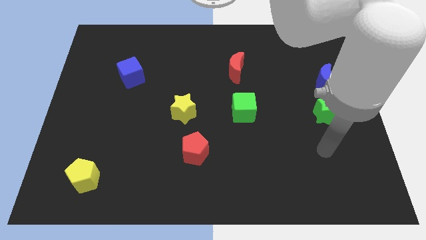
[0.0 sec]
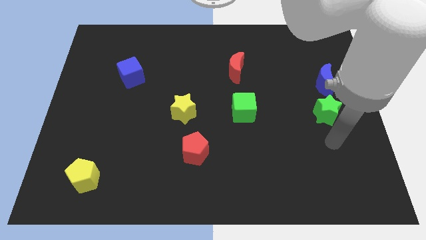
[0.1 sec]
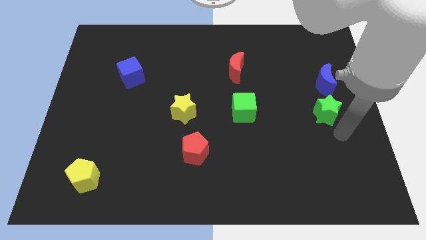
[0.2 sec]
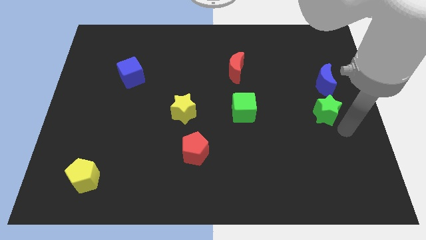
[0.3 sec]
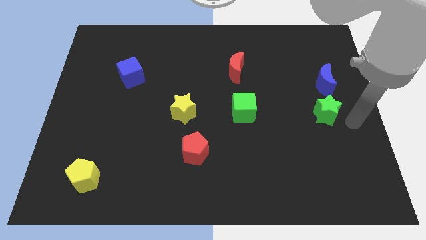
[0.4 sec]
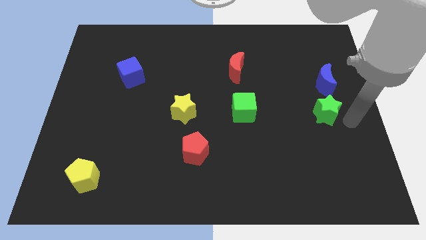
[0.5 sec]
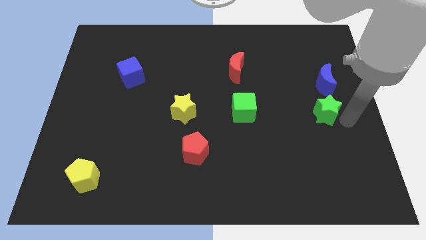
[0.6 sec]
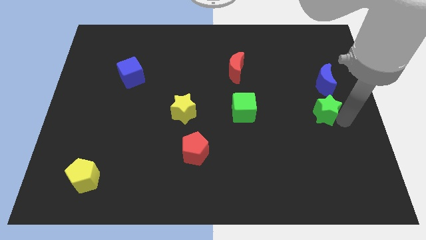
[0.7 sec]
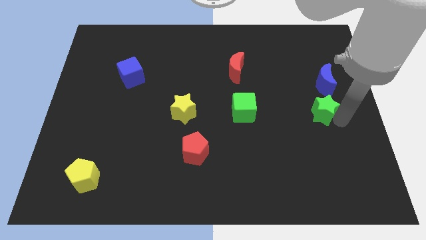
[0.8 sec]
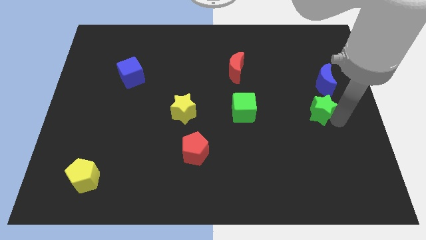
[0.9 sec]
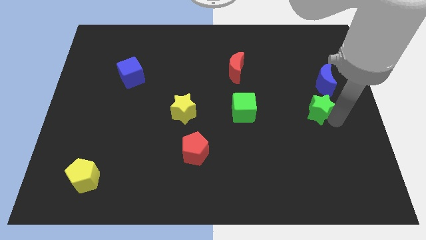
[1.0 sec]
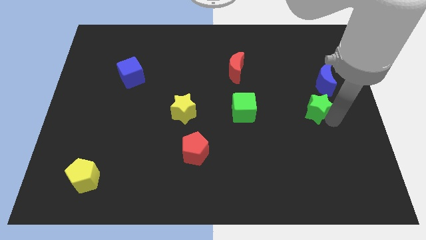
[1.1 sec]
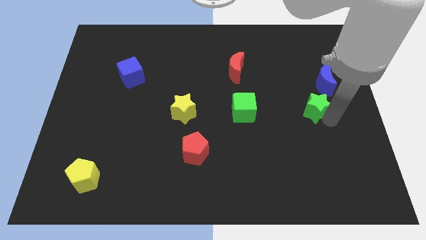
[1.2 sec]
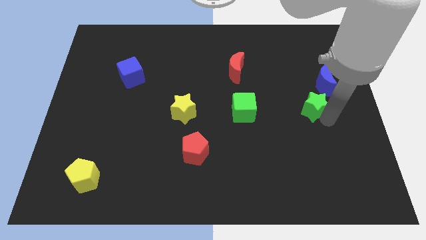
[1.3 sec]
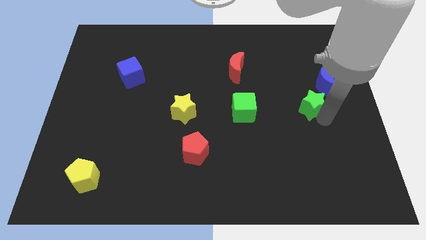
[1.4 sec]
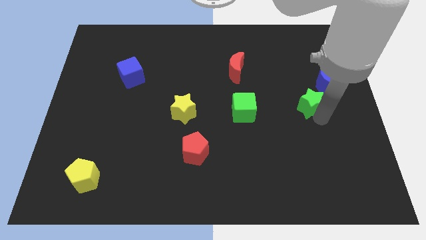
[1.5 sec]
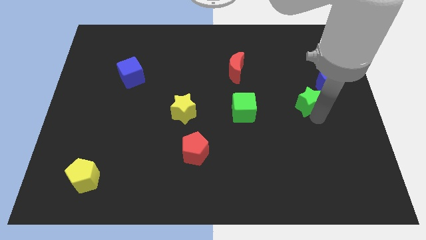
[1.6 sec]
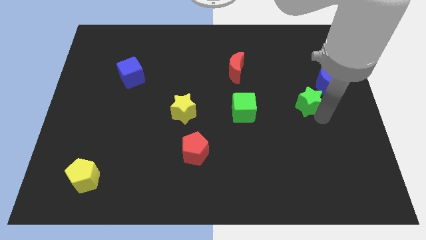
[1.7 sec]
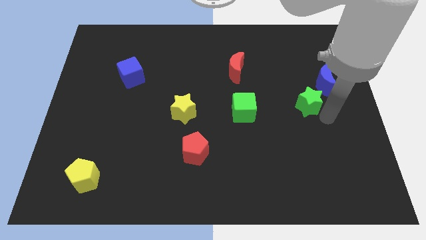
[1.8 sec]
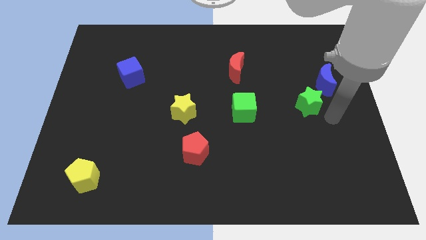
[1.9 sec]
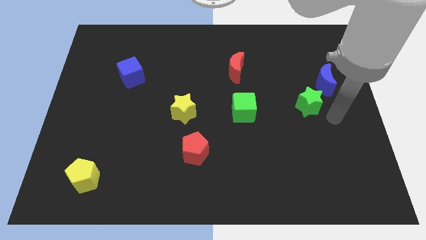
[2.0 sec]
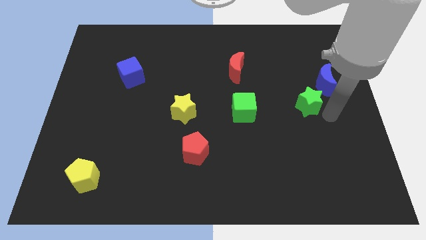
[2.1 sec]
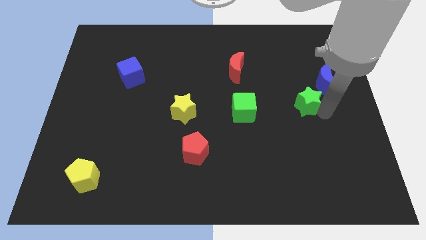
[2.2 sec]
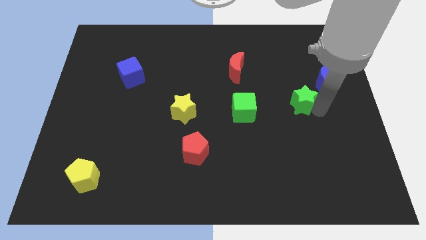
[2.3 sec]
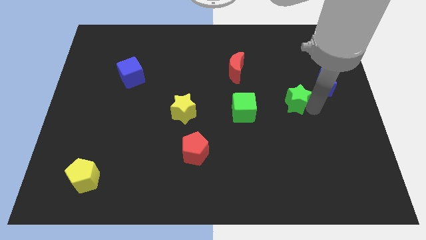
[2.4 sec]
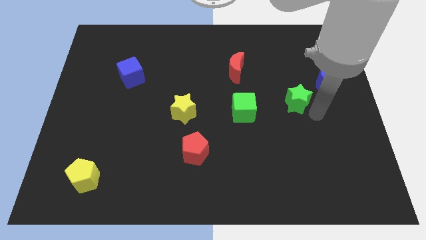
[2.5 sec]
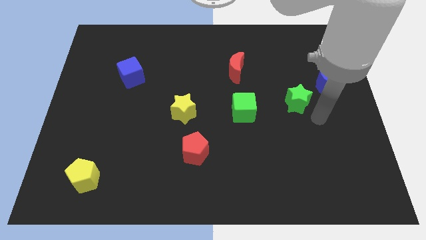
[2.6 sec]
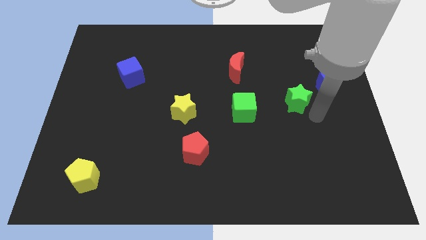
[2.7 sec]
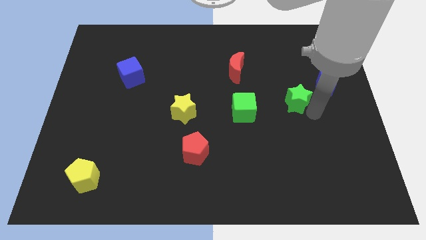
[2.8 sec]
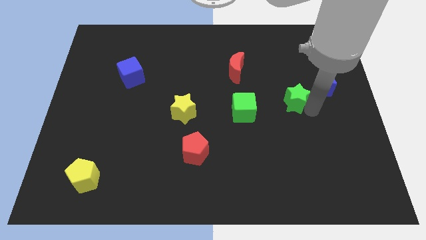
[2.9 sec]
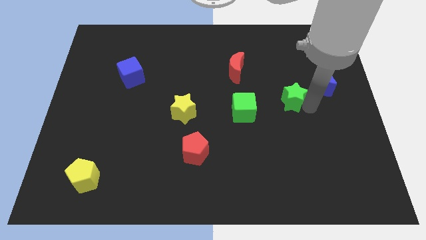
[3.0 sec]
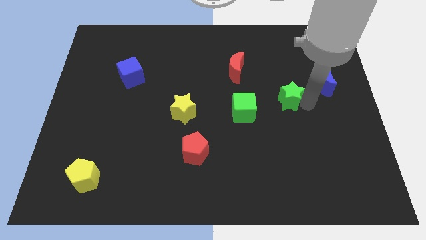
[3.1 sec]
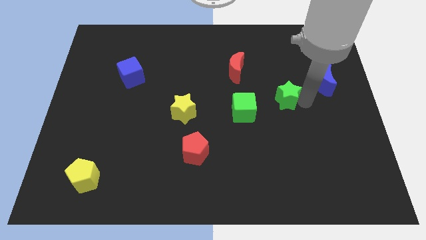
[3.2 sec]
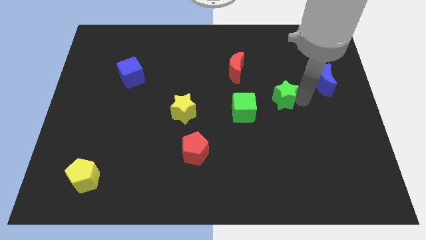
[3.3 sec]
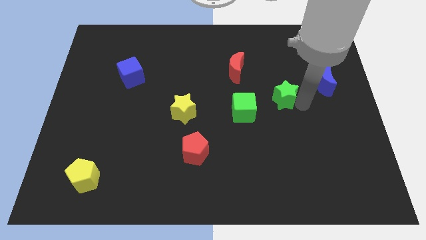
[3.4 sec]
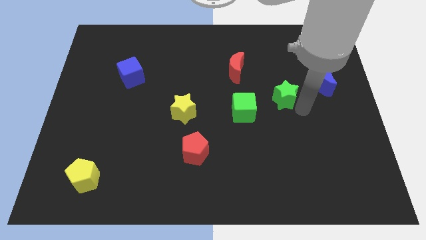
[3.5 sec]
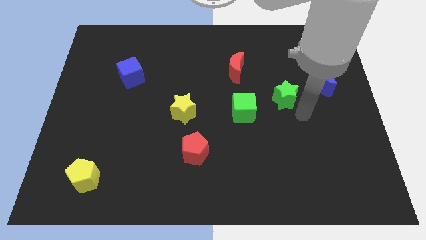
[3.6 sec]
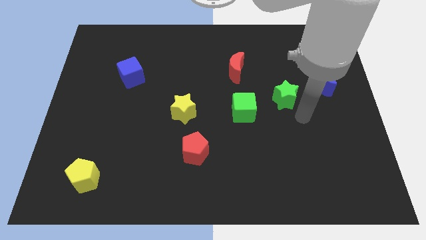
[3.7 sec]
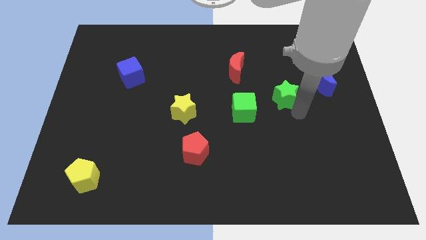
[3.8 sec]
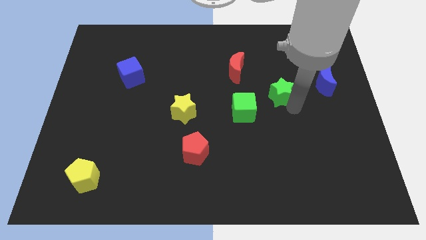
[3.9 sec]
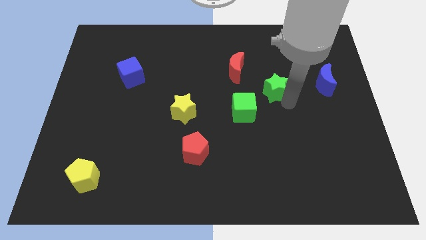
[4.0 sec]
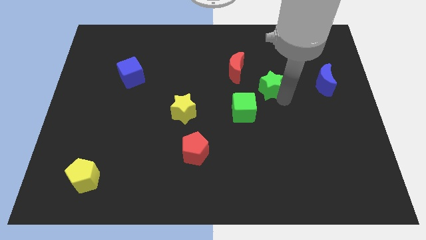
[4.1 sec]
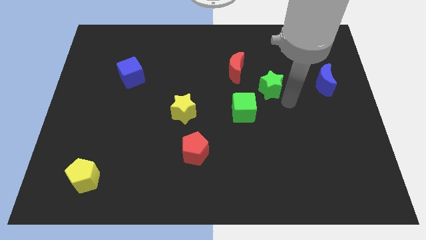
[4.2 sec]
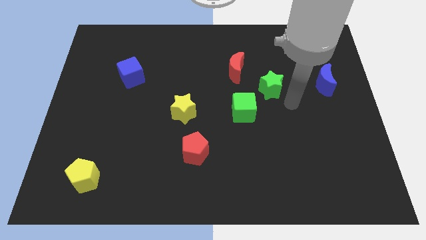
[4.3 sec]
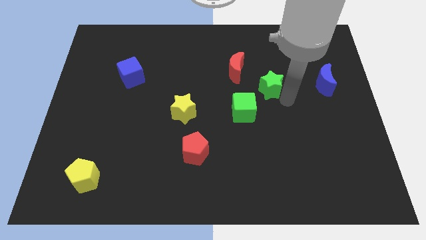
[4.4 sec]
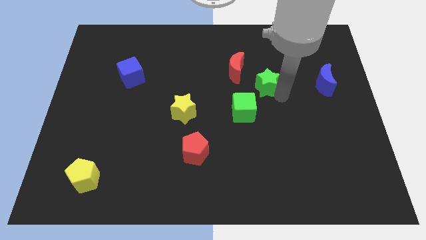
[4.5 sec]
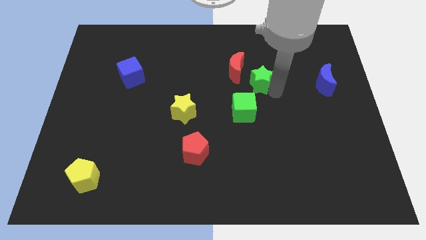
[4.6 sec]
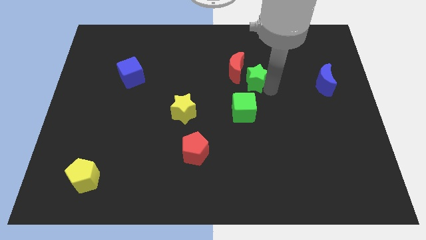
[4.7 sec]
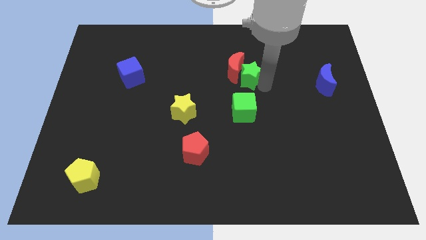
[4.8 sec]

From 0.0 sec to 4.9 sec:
move the green star towards the red moon

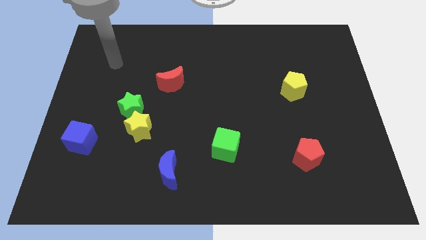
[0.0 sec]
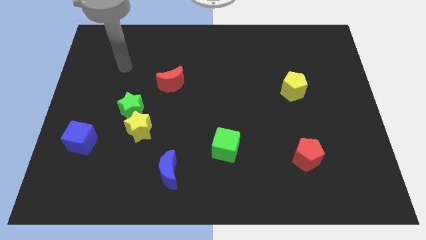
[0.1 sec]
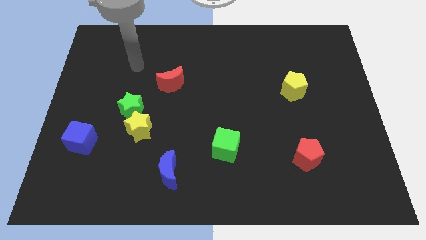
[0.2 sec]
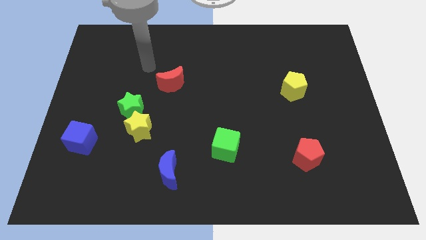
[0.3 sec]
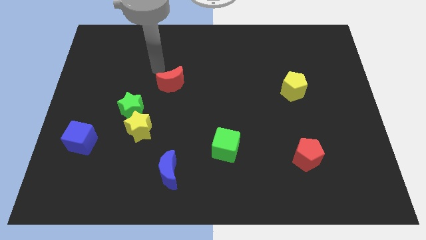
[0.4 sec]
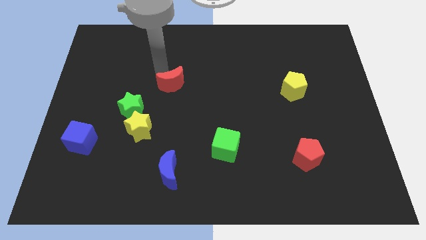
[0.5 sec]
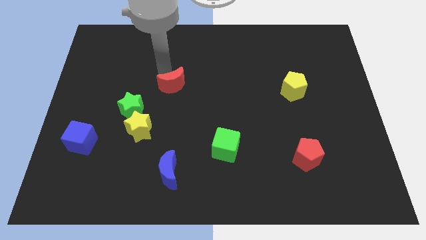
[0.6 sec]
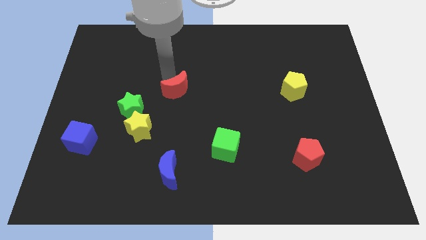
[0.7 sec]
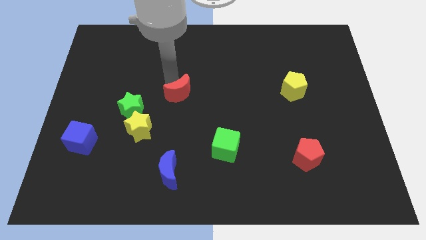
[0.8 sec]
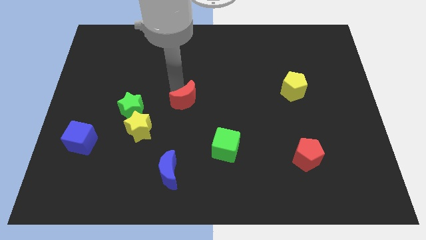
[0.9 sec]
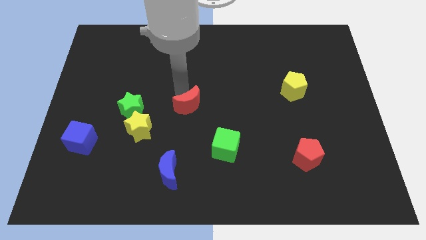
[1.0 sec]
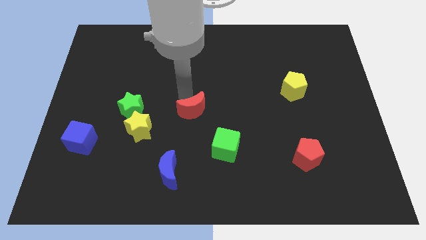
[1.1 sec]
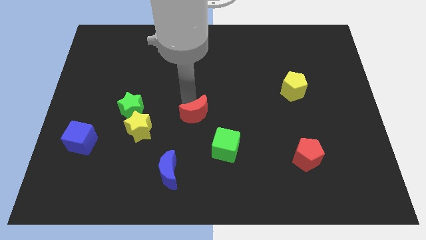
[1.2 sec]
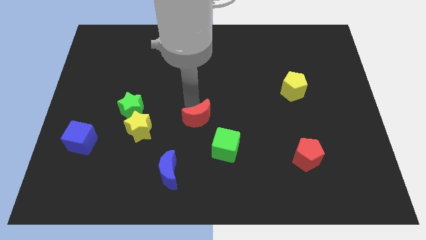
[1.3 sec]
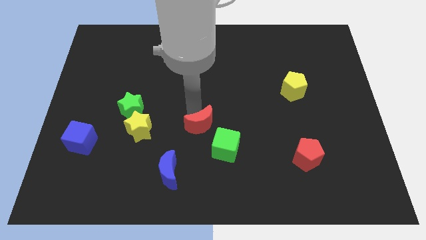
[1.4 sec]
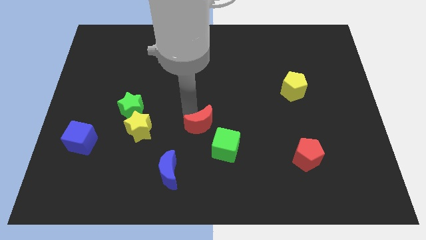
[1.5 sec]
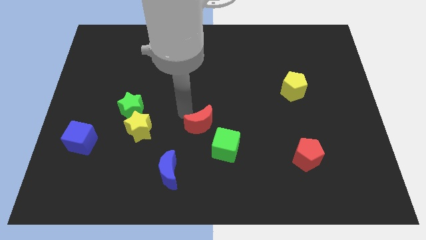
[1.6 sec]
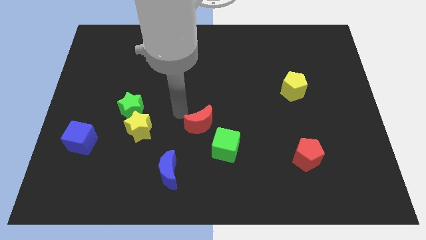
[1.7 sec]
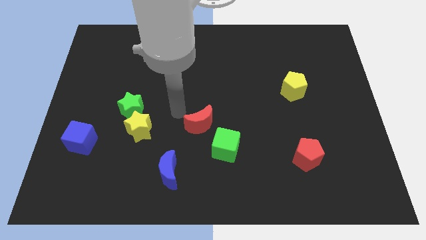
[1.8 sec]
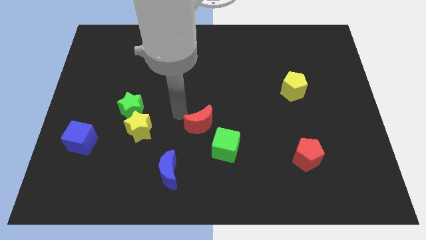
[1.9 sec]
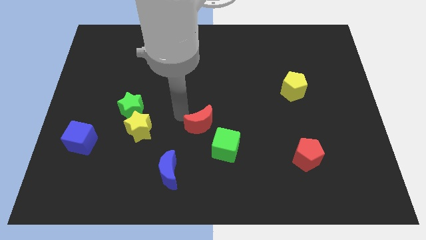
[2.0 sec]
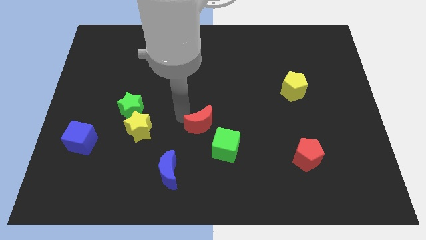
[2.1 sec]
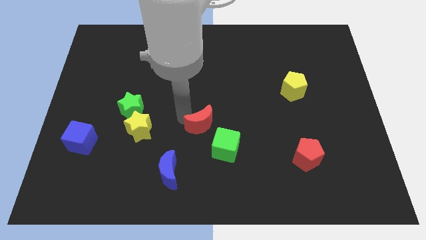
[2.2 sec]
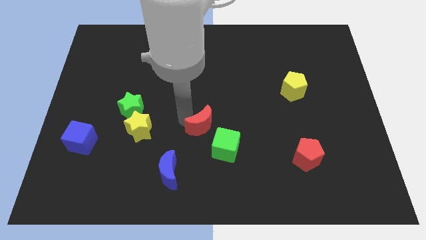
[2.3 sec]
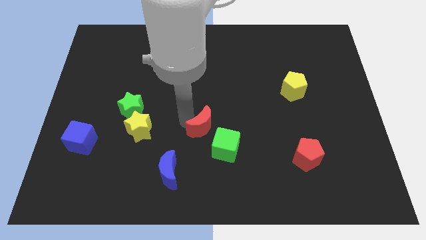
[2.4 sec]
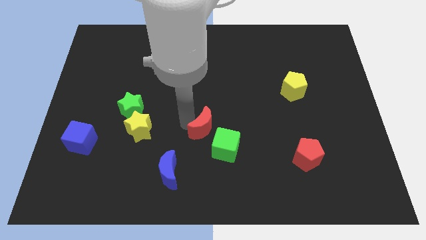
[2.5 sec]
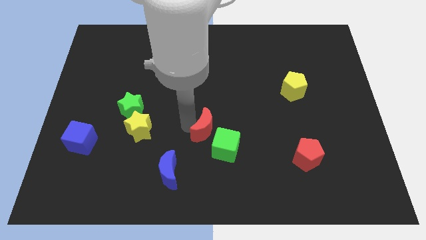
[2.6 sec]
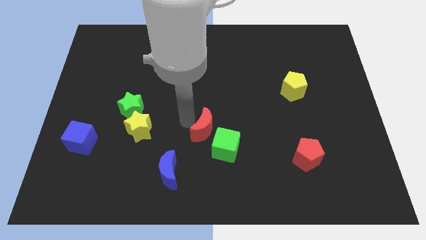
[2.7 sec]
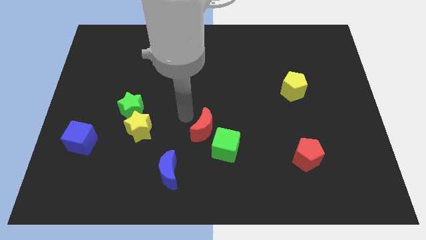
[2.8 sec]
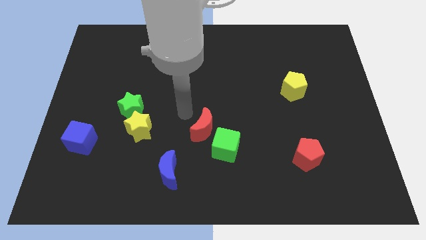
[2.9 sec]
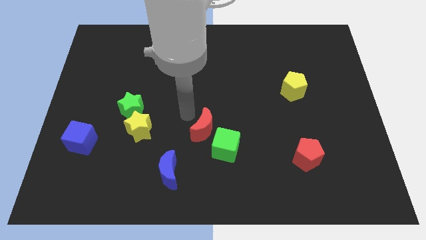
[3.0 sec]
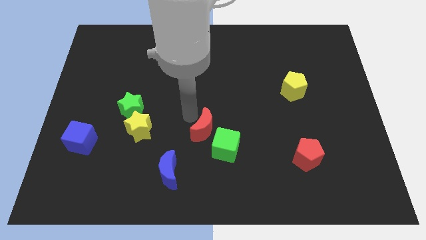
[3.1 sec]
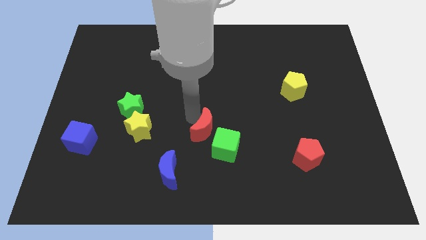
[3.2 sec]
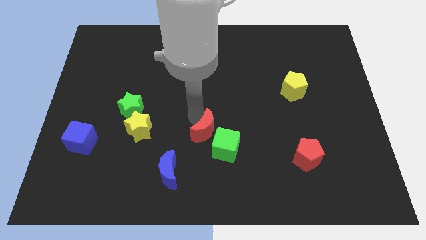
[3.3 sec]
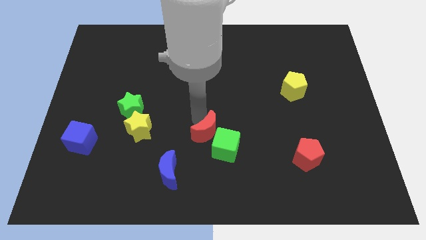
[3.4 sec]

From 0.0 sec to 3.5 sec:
put the red moon to the green cube
